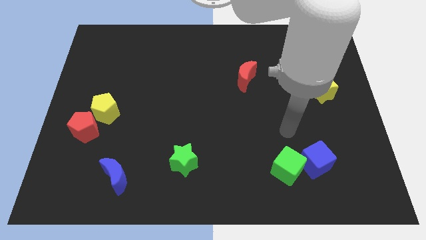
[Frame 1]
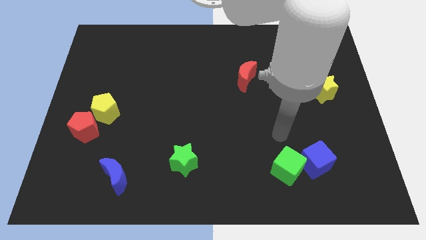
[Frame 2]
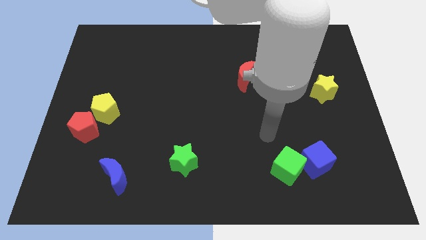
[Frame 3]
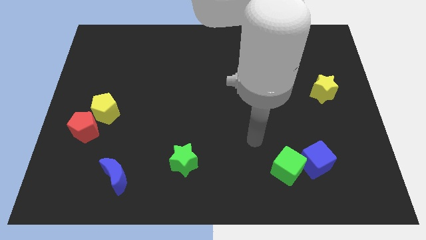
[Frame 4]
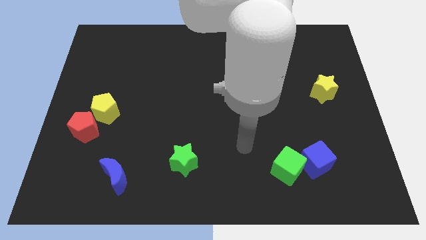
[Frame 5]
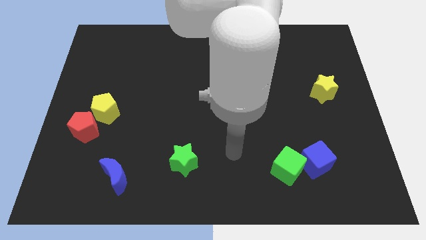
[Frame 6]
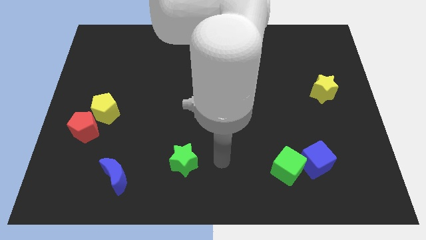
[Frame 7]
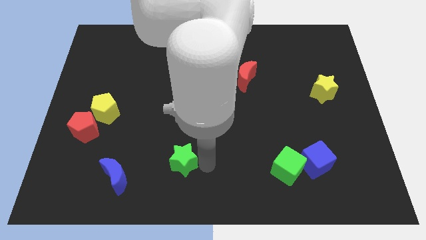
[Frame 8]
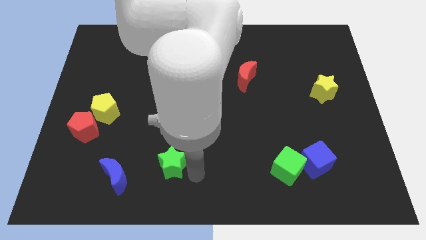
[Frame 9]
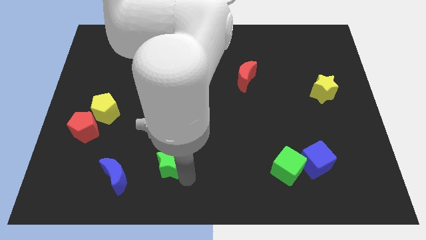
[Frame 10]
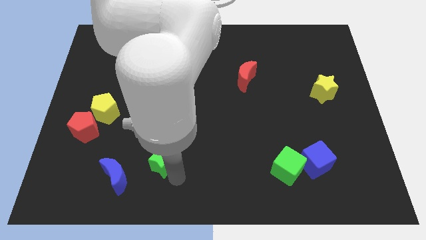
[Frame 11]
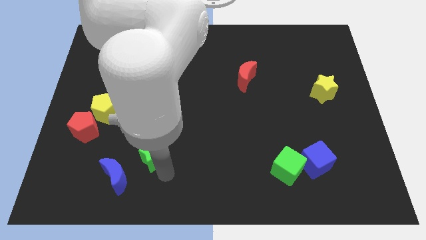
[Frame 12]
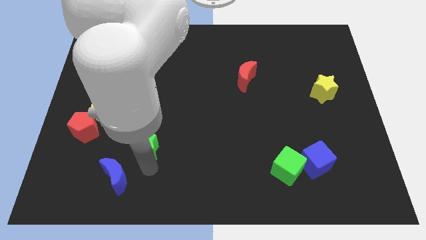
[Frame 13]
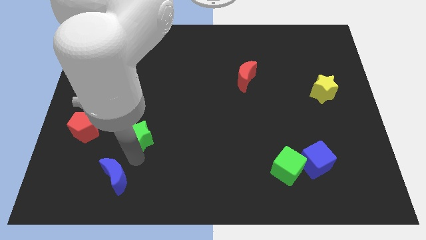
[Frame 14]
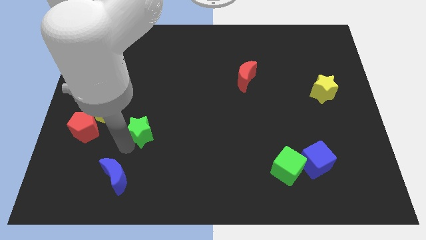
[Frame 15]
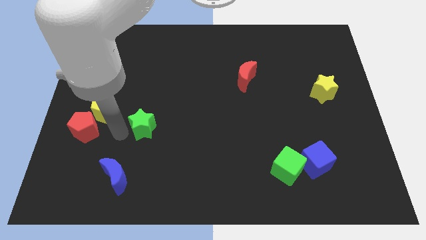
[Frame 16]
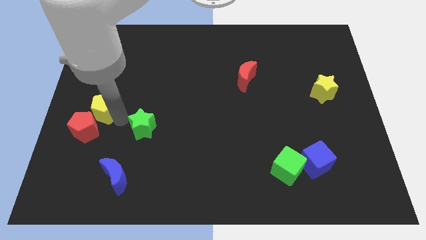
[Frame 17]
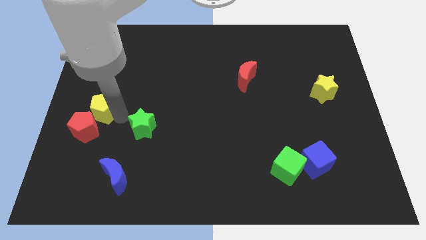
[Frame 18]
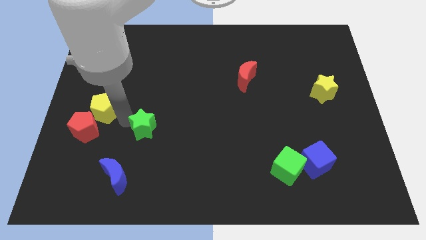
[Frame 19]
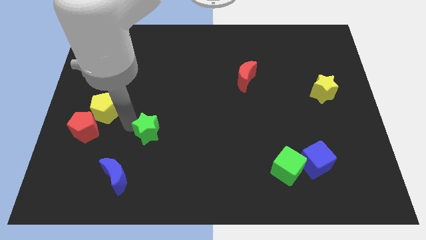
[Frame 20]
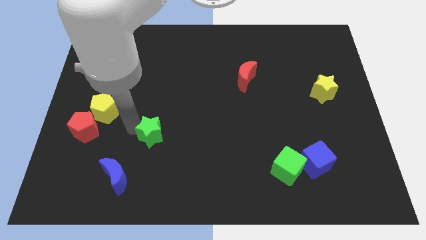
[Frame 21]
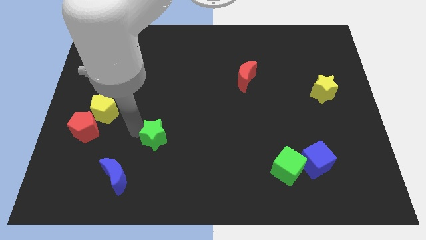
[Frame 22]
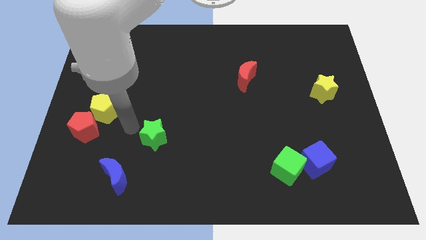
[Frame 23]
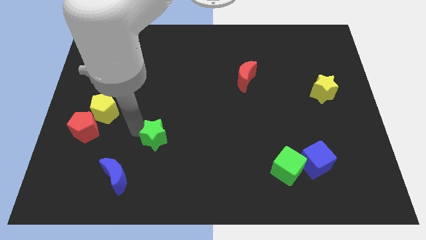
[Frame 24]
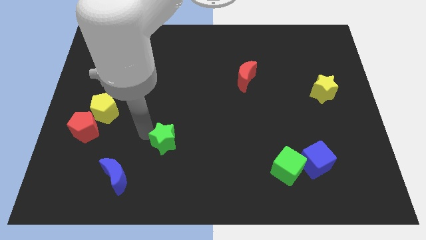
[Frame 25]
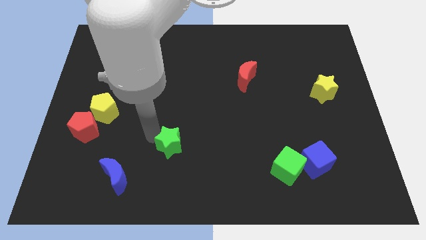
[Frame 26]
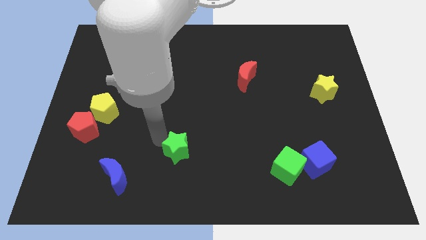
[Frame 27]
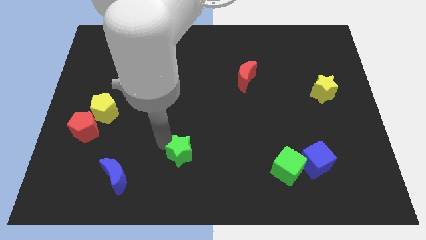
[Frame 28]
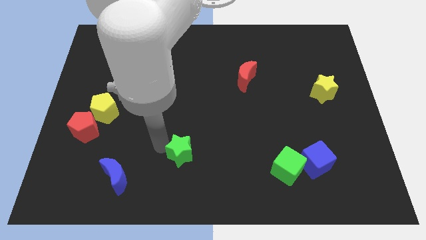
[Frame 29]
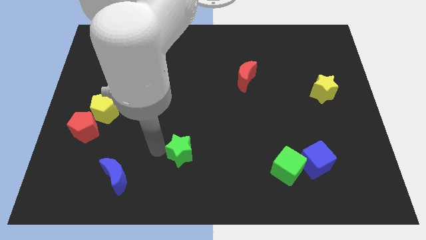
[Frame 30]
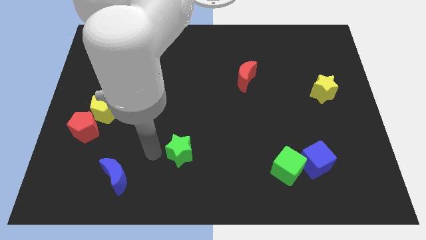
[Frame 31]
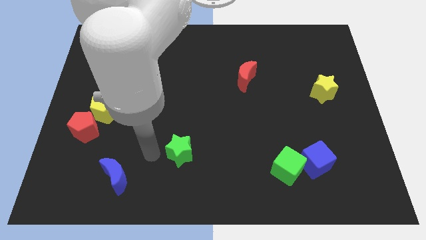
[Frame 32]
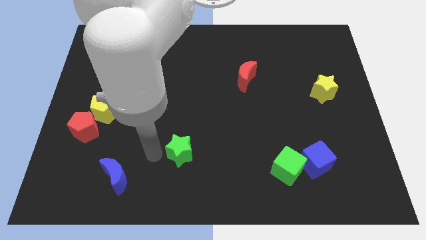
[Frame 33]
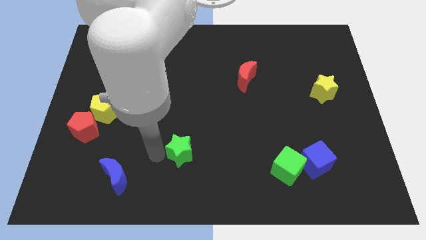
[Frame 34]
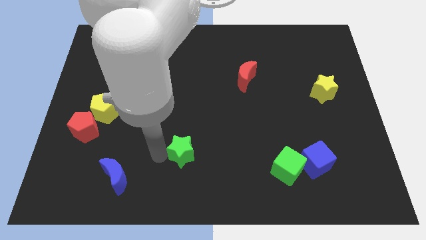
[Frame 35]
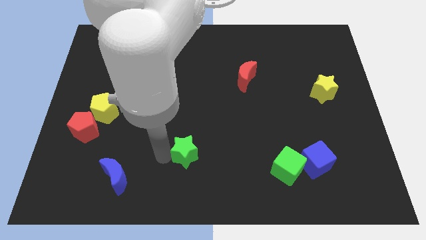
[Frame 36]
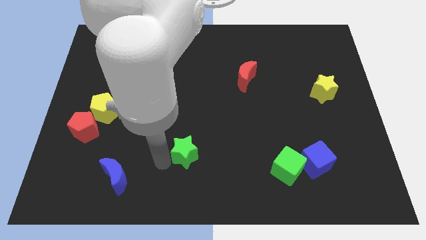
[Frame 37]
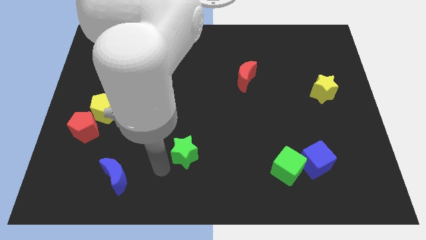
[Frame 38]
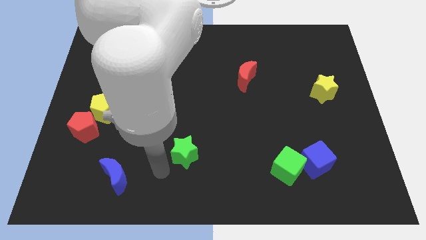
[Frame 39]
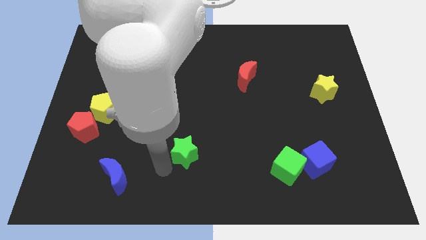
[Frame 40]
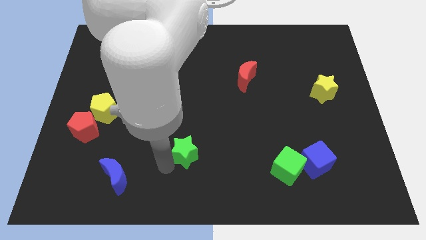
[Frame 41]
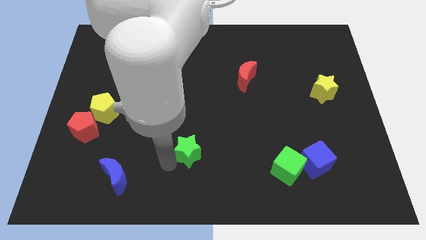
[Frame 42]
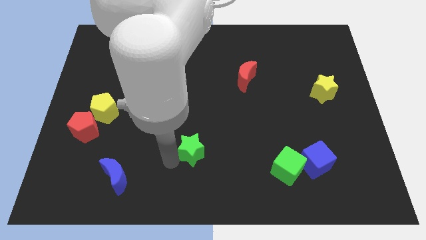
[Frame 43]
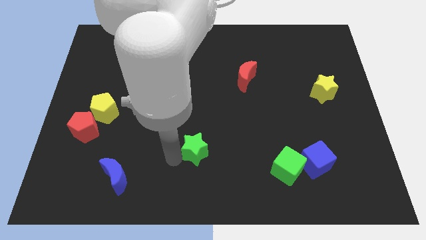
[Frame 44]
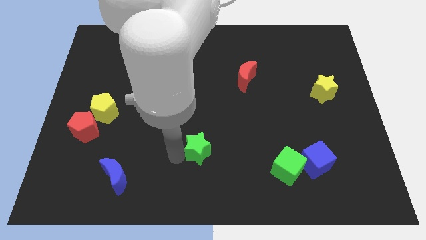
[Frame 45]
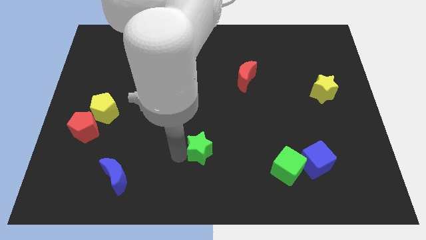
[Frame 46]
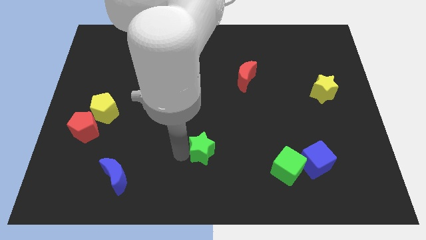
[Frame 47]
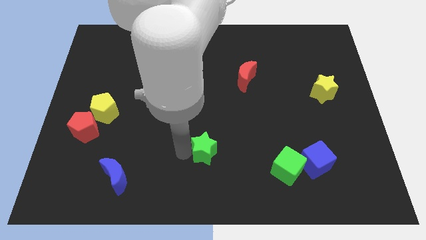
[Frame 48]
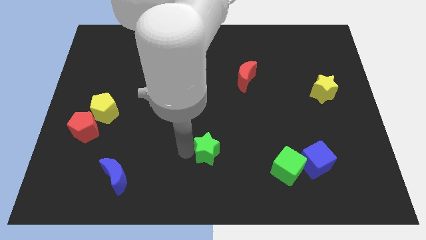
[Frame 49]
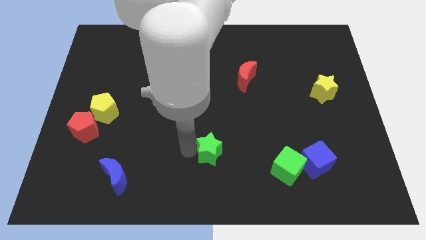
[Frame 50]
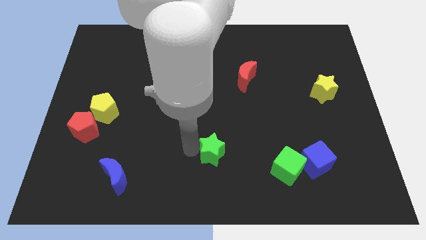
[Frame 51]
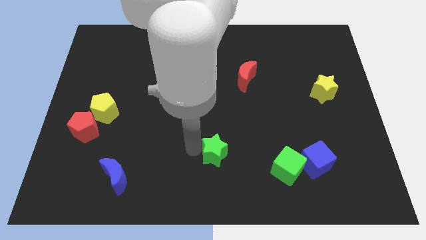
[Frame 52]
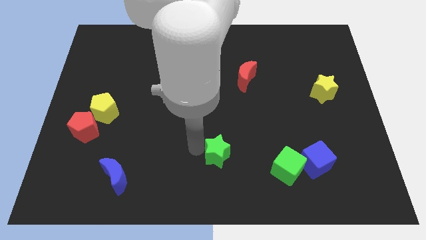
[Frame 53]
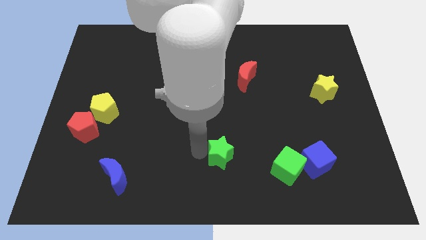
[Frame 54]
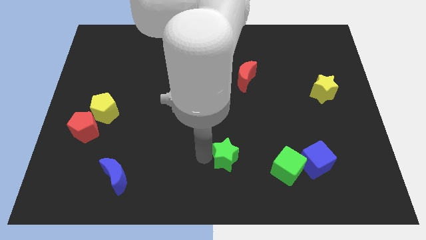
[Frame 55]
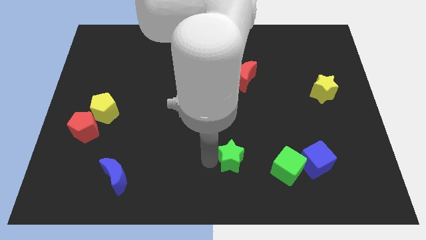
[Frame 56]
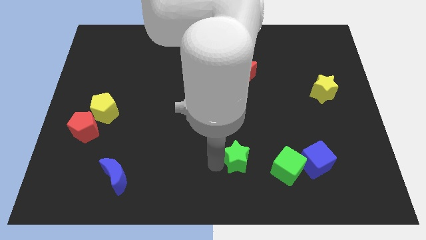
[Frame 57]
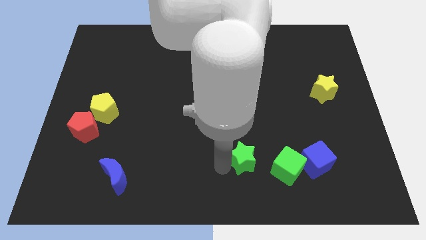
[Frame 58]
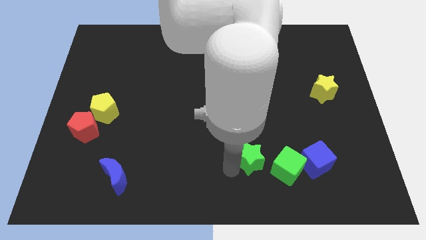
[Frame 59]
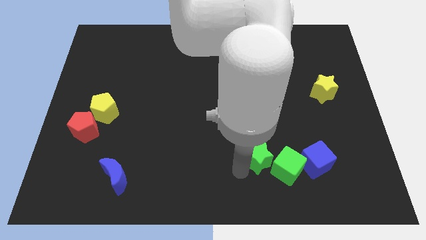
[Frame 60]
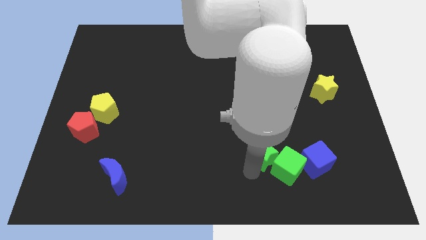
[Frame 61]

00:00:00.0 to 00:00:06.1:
move the green star a little bit diagonally up and right

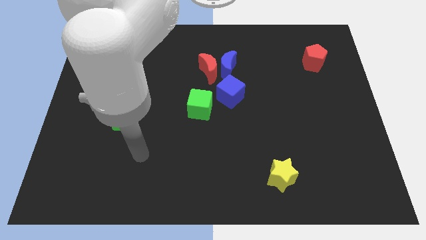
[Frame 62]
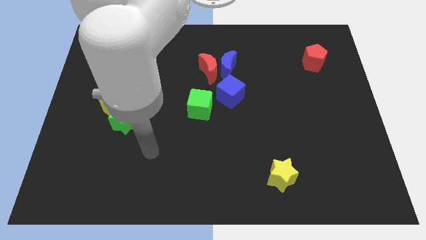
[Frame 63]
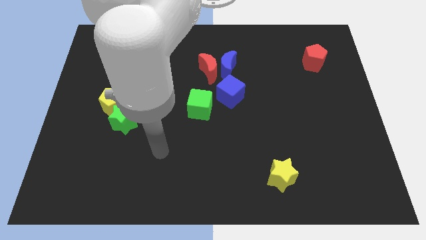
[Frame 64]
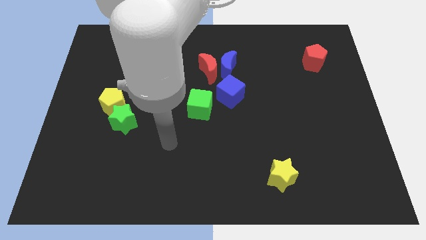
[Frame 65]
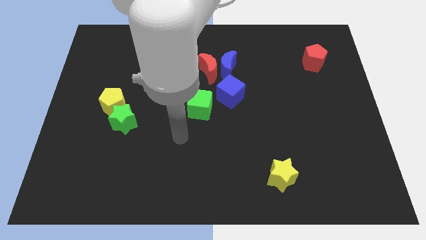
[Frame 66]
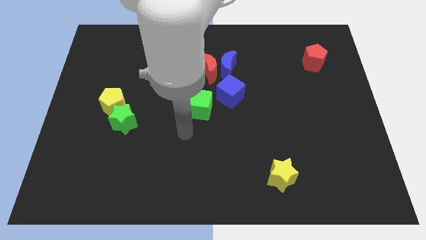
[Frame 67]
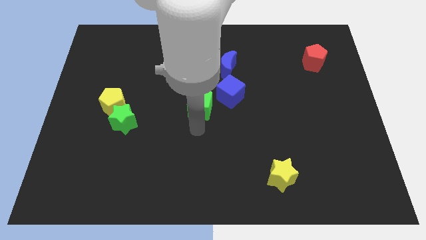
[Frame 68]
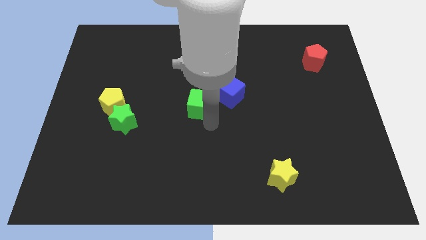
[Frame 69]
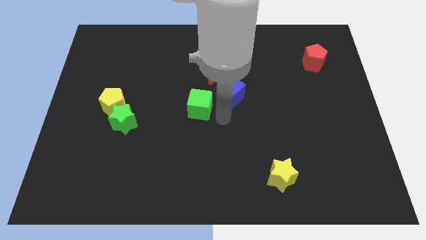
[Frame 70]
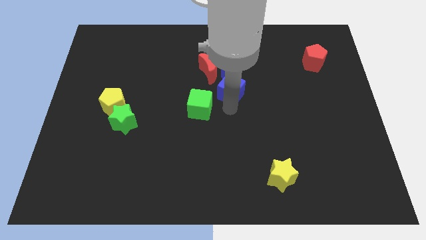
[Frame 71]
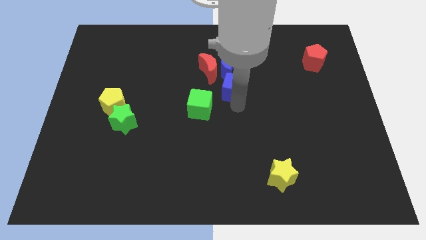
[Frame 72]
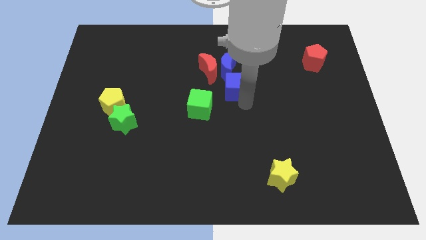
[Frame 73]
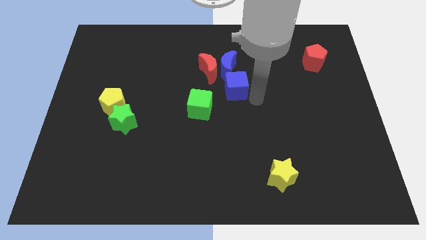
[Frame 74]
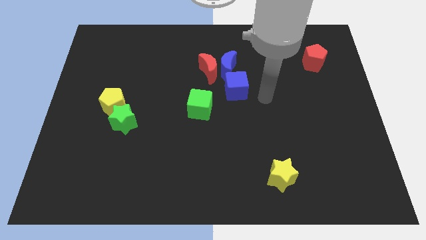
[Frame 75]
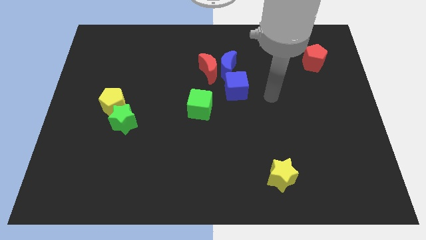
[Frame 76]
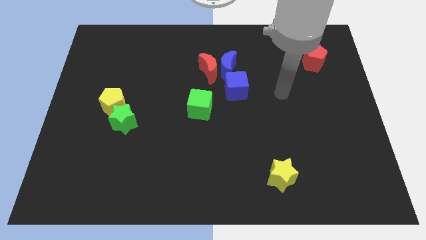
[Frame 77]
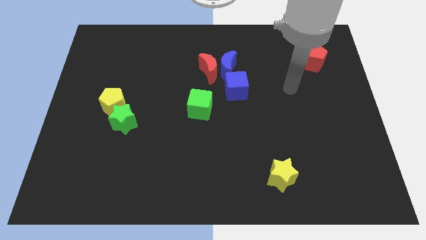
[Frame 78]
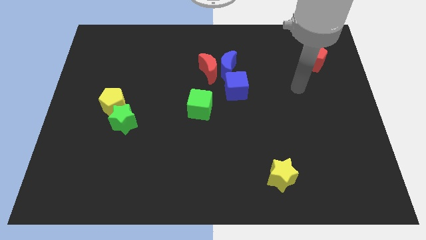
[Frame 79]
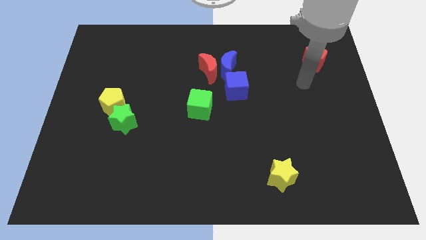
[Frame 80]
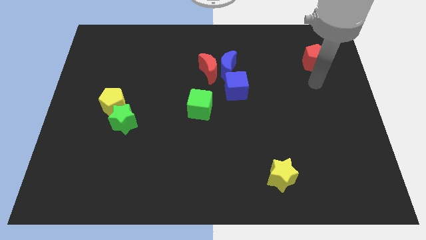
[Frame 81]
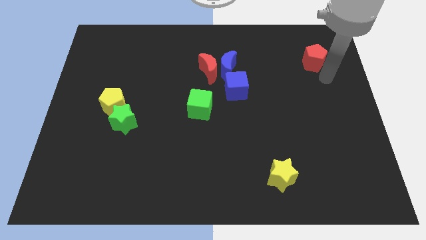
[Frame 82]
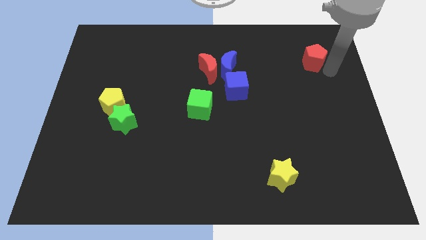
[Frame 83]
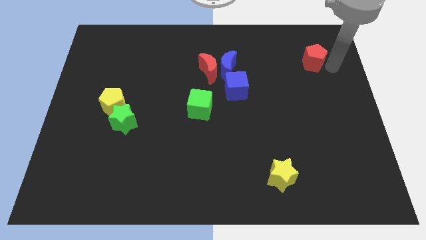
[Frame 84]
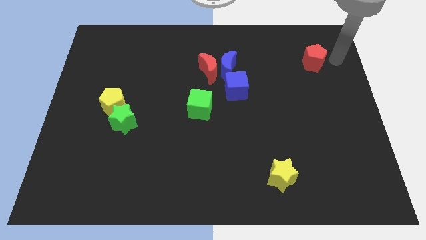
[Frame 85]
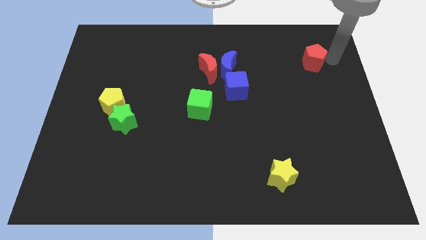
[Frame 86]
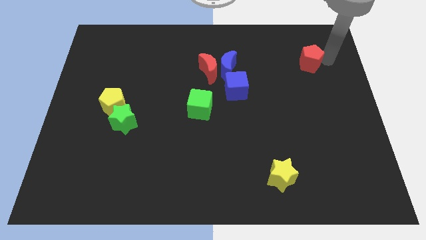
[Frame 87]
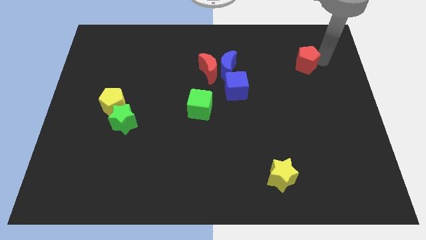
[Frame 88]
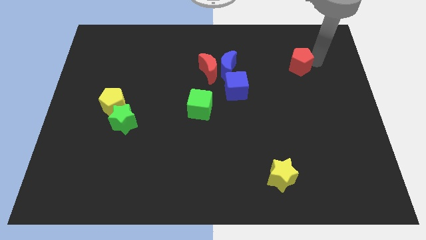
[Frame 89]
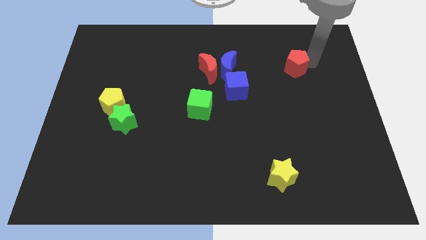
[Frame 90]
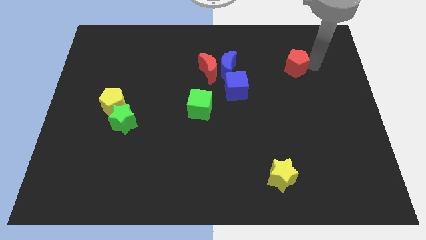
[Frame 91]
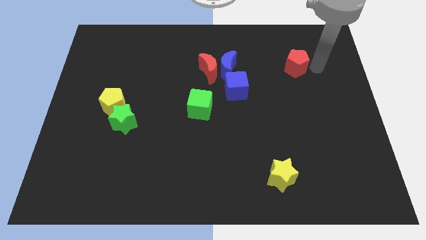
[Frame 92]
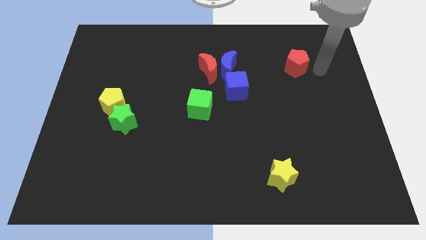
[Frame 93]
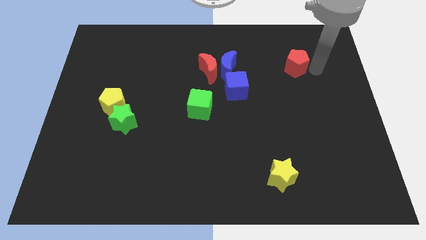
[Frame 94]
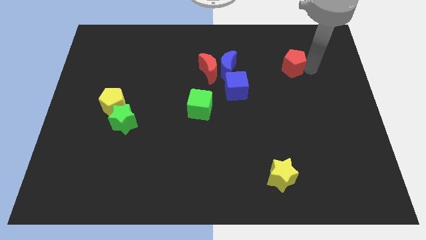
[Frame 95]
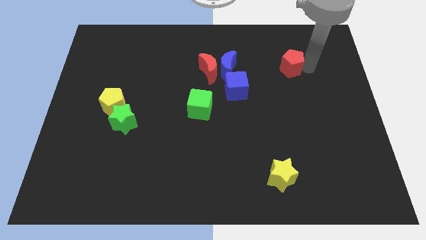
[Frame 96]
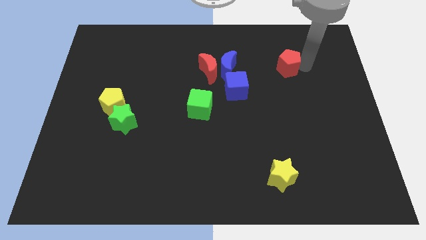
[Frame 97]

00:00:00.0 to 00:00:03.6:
push the red pentagon to the left a bit
